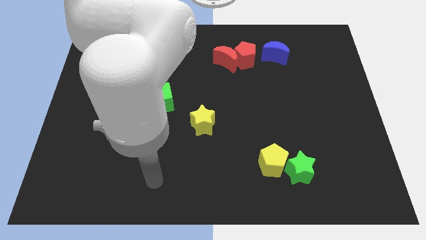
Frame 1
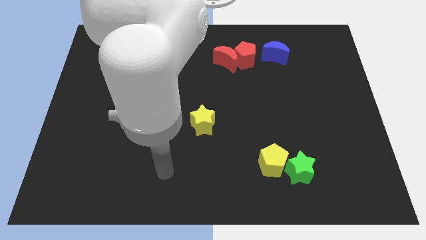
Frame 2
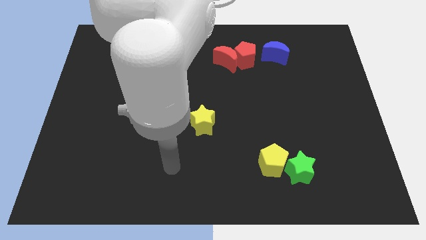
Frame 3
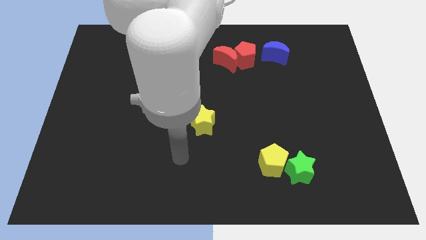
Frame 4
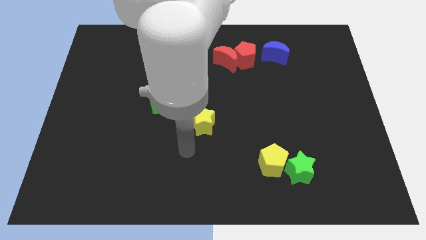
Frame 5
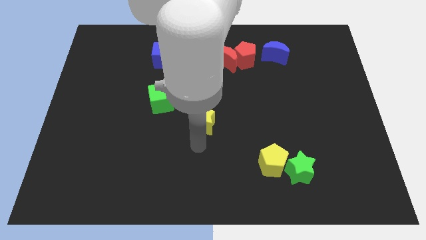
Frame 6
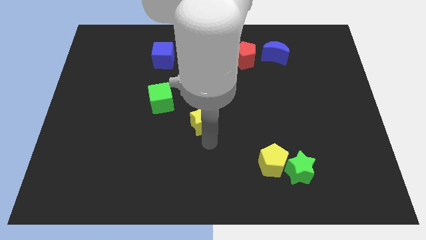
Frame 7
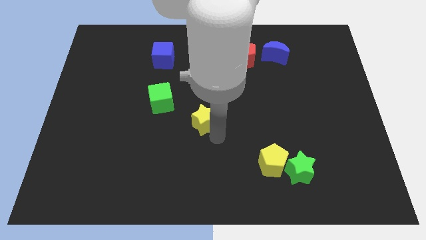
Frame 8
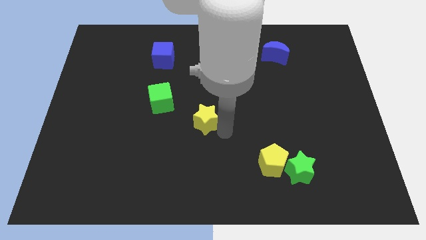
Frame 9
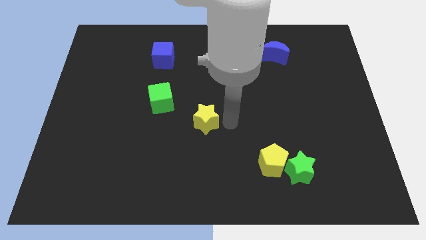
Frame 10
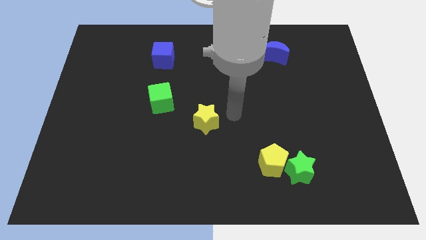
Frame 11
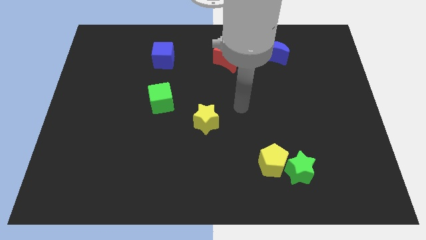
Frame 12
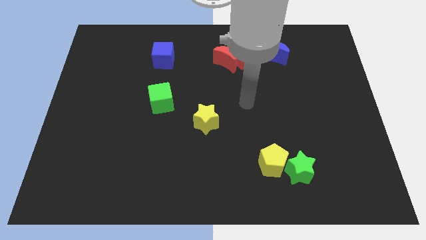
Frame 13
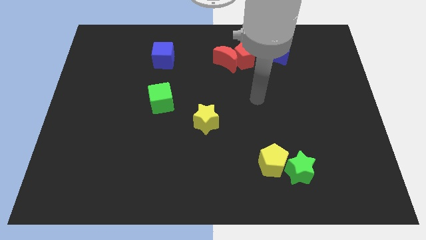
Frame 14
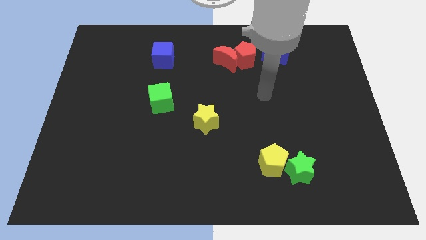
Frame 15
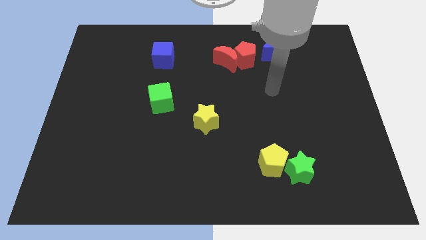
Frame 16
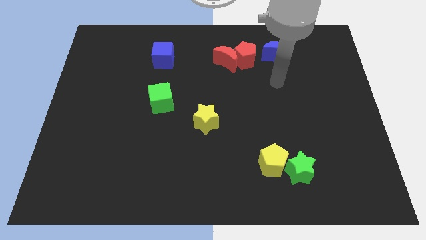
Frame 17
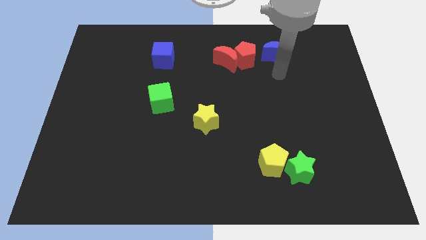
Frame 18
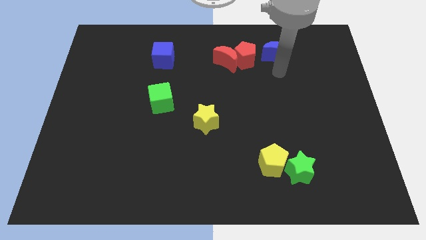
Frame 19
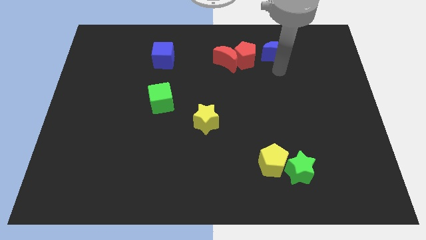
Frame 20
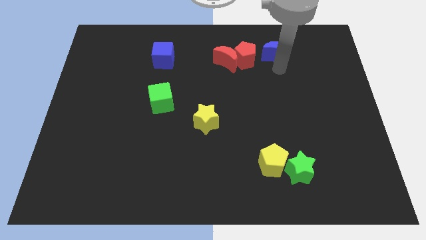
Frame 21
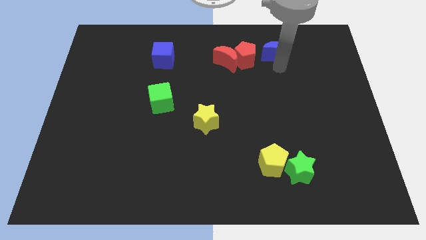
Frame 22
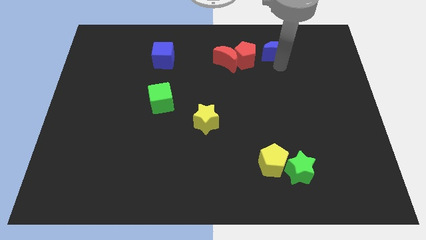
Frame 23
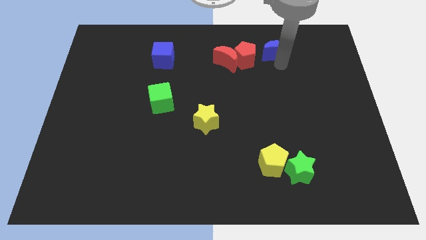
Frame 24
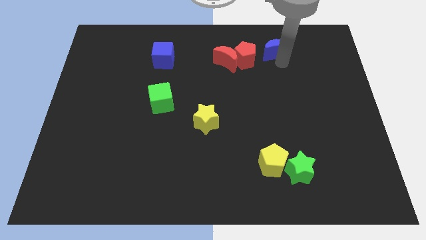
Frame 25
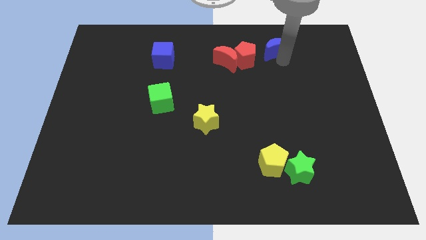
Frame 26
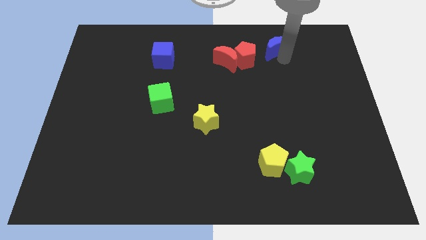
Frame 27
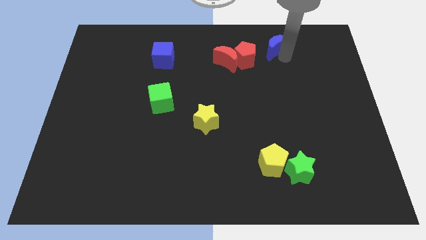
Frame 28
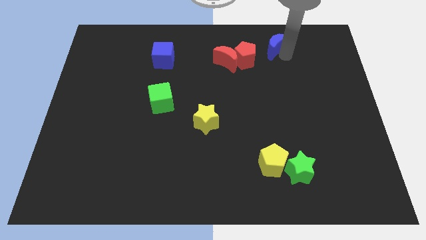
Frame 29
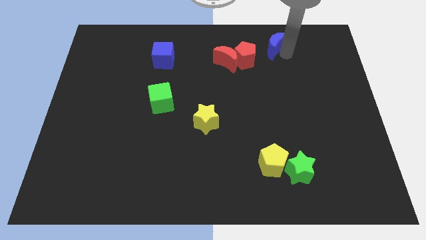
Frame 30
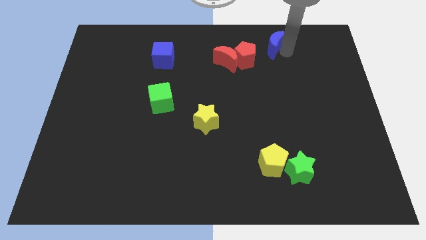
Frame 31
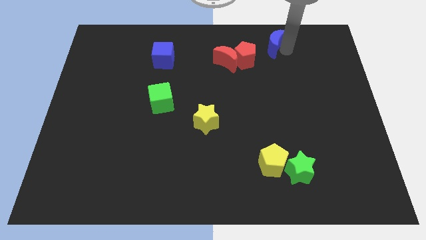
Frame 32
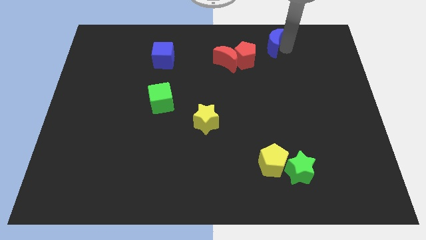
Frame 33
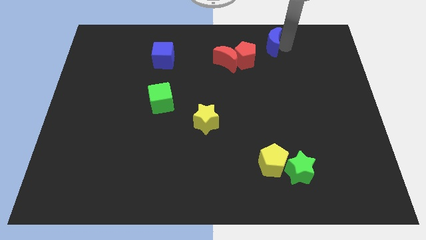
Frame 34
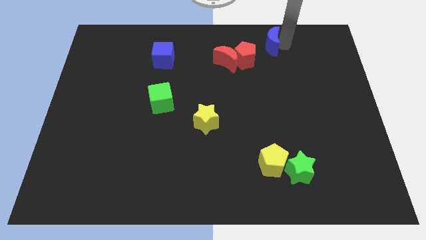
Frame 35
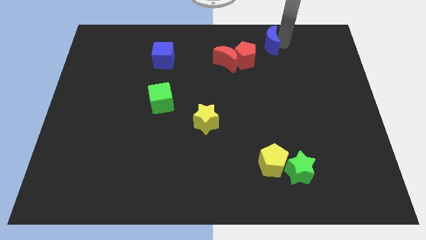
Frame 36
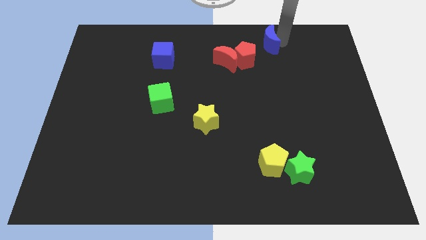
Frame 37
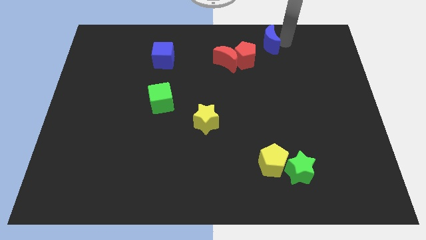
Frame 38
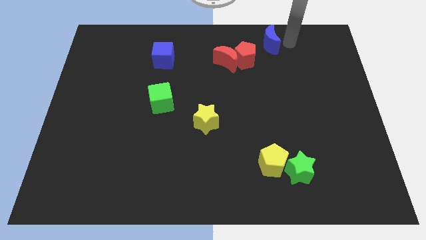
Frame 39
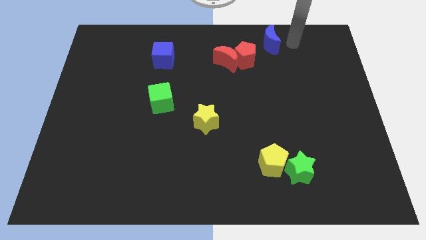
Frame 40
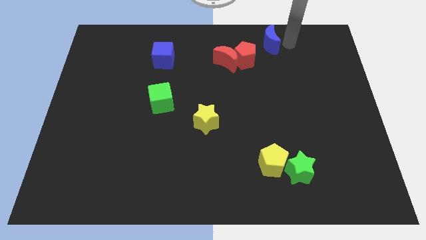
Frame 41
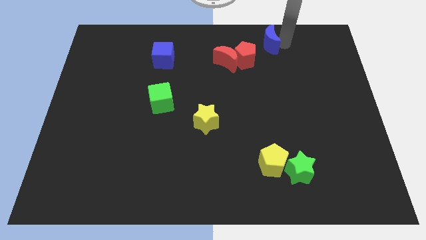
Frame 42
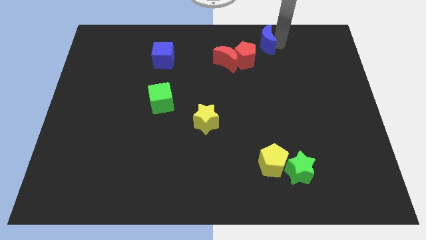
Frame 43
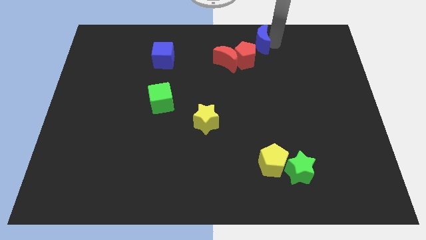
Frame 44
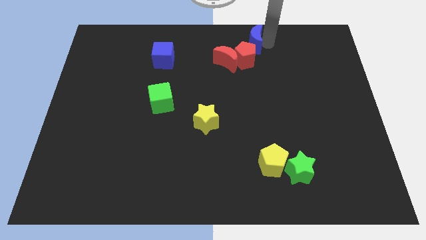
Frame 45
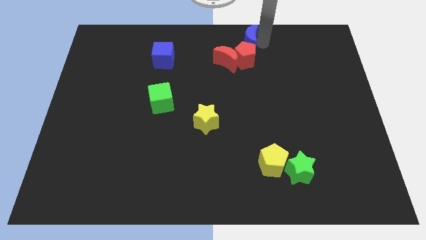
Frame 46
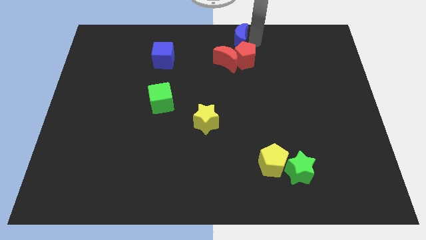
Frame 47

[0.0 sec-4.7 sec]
slide the blue moon a little bit left

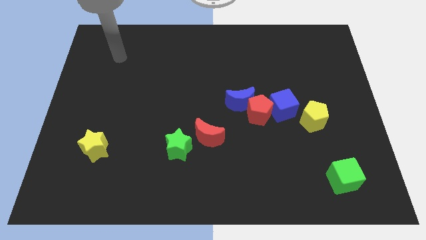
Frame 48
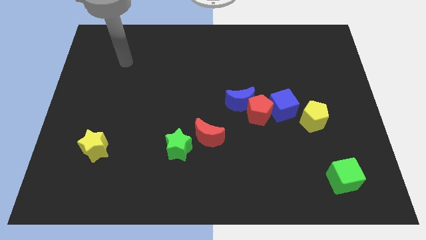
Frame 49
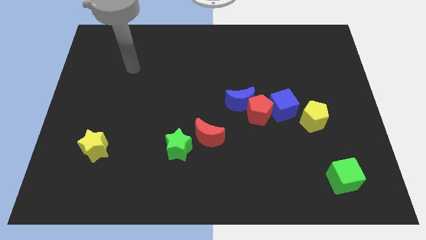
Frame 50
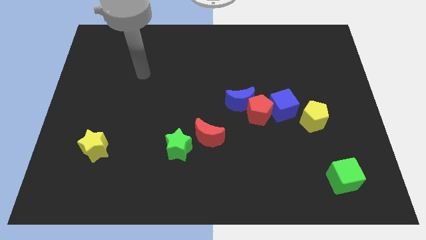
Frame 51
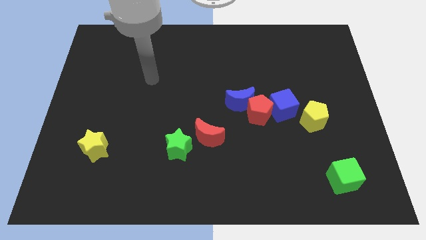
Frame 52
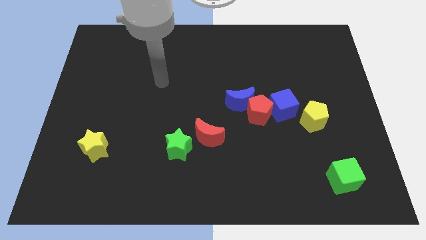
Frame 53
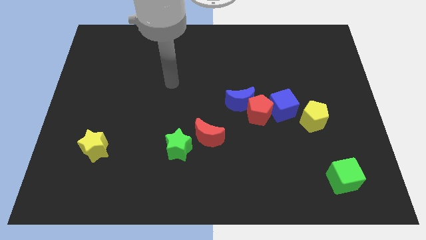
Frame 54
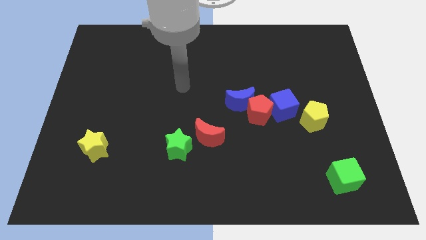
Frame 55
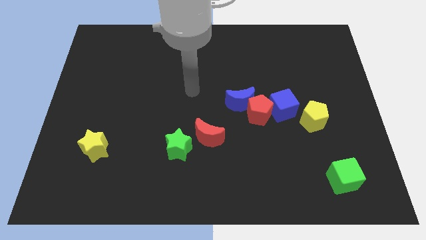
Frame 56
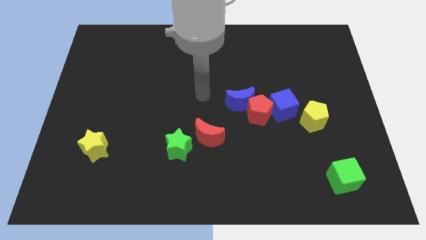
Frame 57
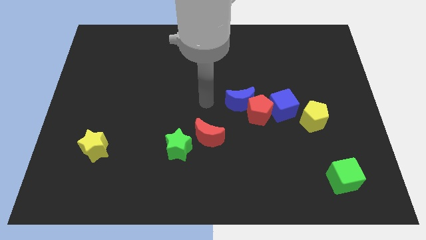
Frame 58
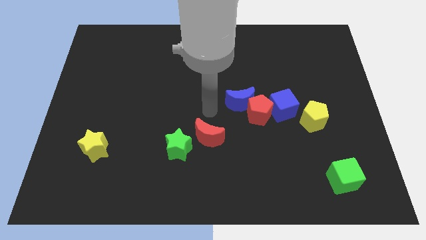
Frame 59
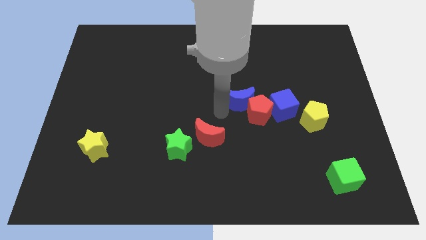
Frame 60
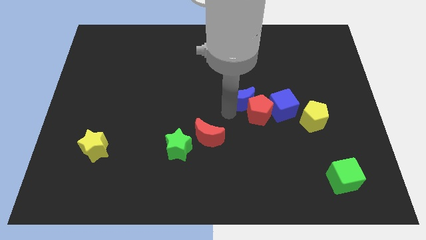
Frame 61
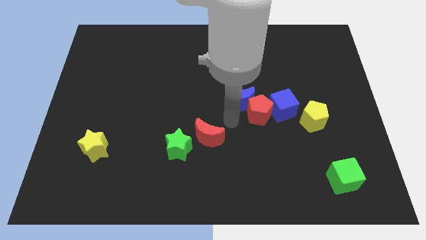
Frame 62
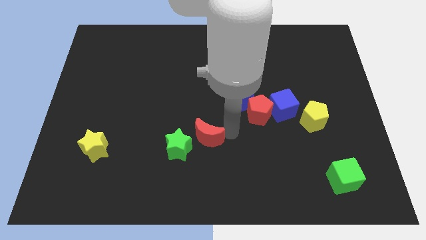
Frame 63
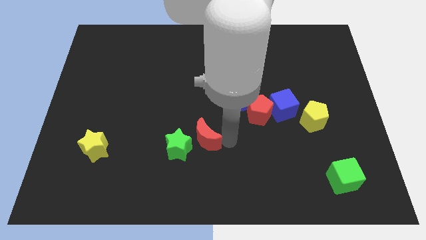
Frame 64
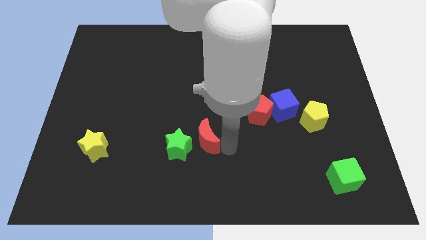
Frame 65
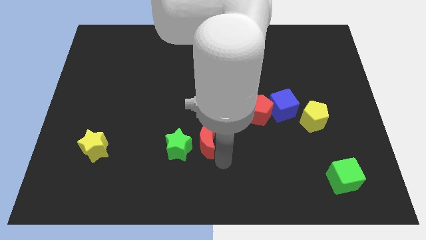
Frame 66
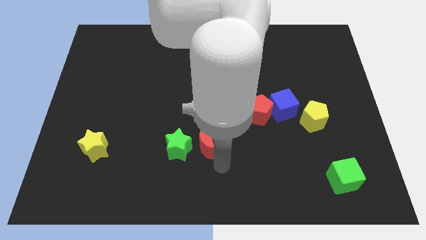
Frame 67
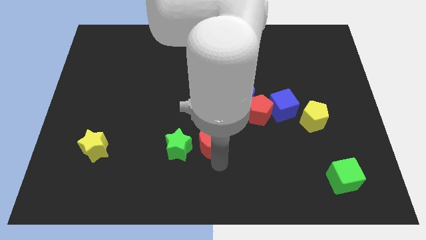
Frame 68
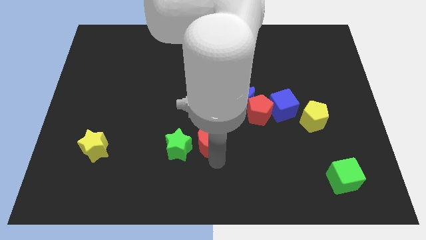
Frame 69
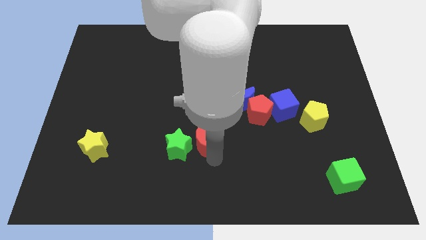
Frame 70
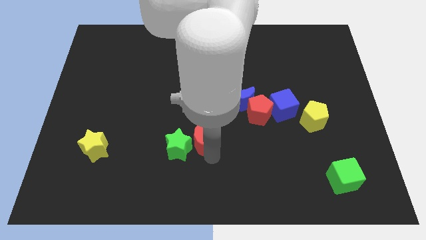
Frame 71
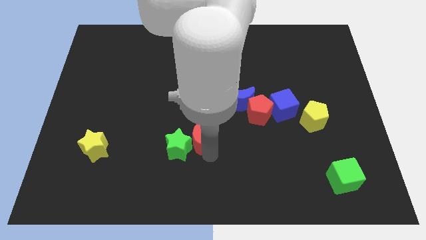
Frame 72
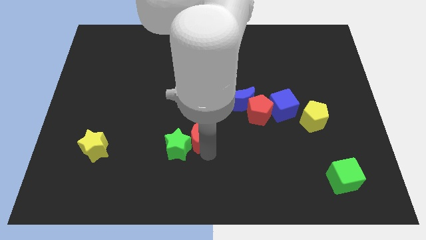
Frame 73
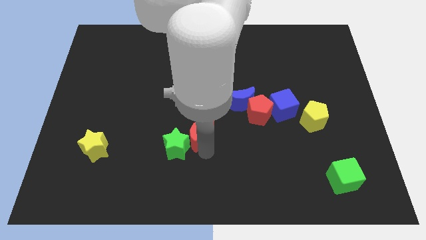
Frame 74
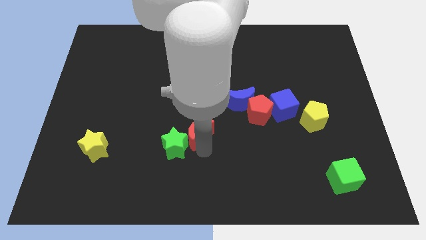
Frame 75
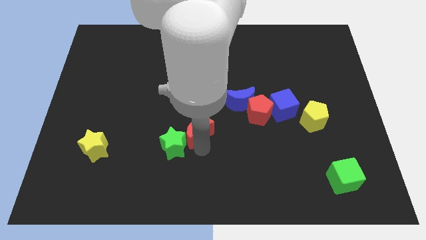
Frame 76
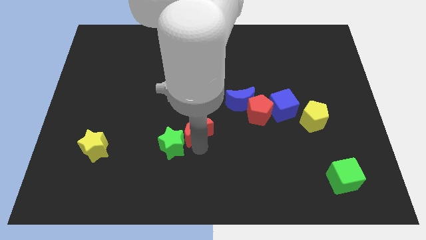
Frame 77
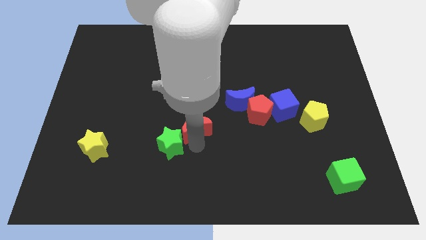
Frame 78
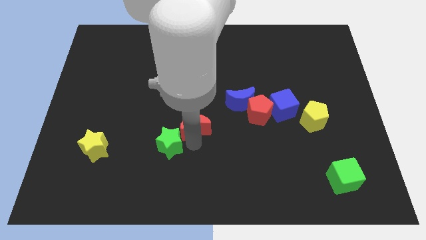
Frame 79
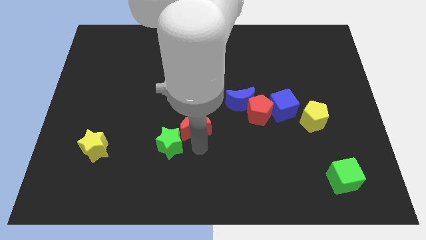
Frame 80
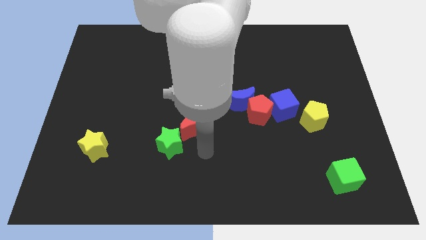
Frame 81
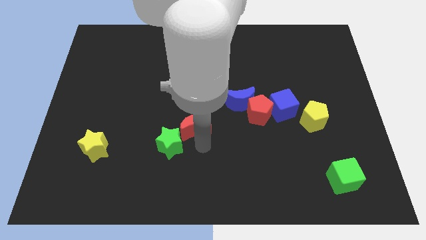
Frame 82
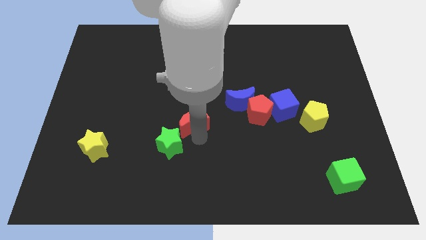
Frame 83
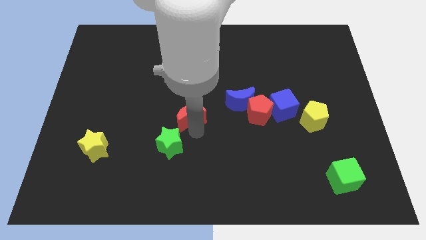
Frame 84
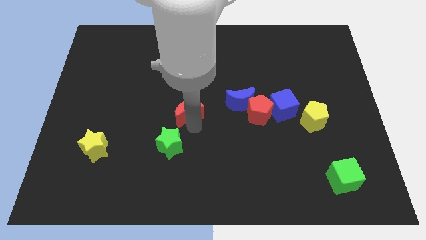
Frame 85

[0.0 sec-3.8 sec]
push the red moon a little up and left diagonally
